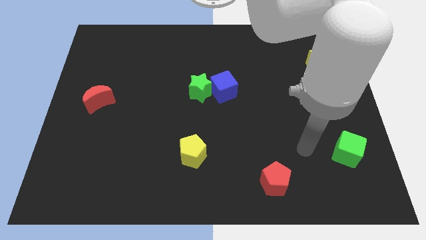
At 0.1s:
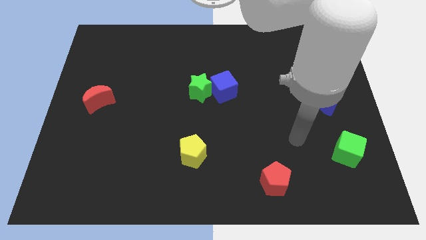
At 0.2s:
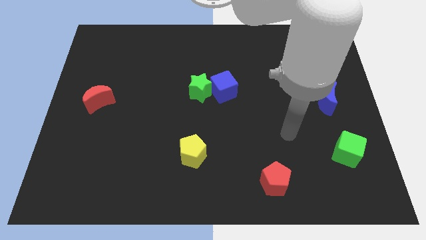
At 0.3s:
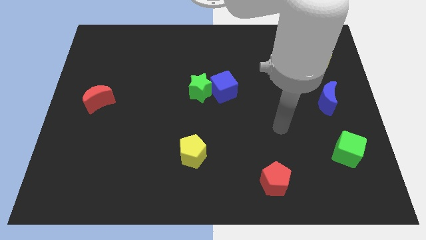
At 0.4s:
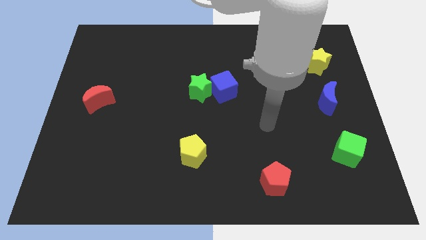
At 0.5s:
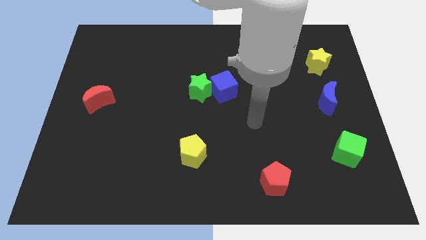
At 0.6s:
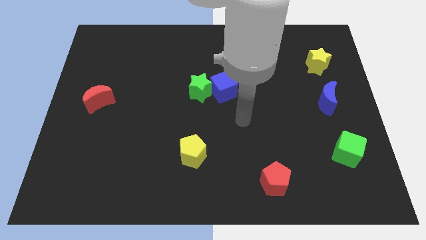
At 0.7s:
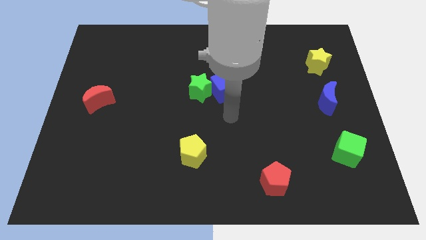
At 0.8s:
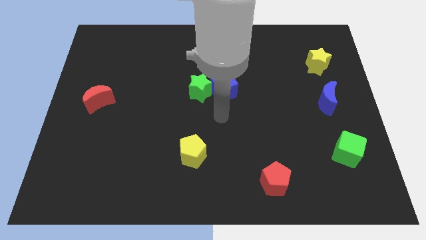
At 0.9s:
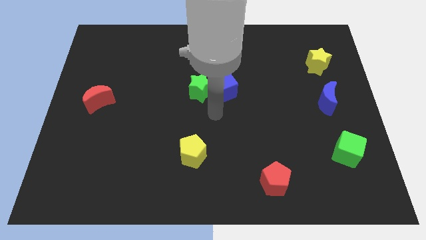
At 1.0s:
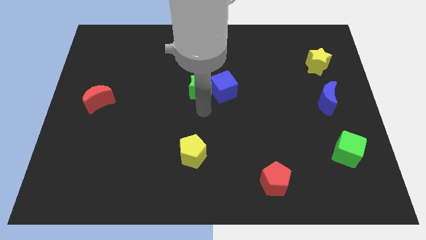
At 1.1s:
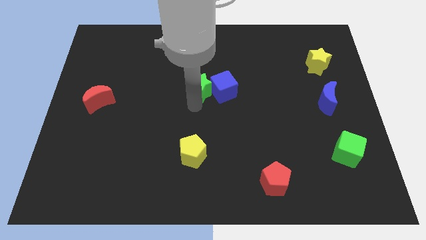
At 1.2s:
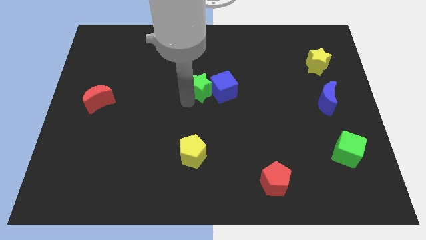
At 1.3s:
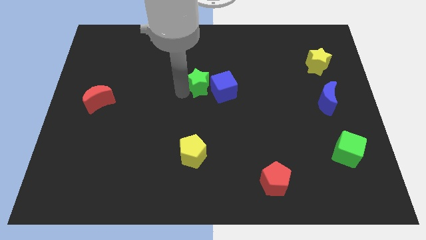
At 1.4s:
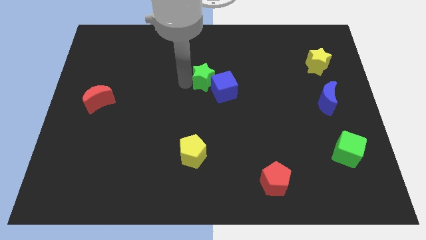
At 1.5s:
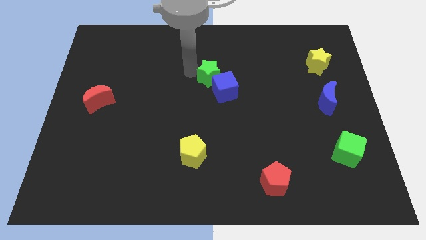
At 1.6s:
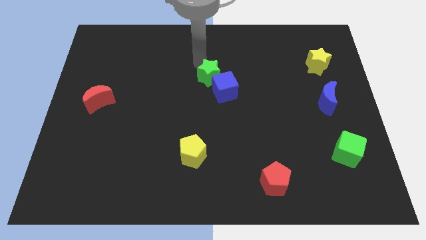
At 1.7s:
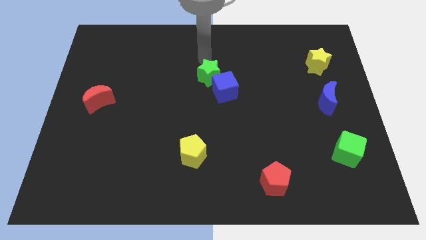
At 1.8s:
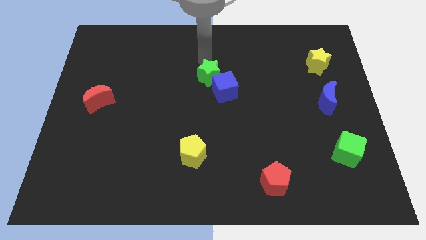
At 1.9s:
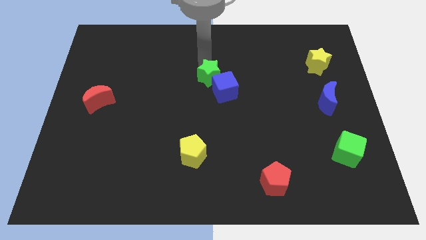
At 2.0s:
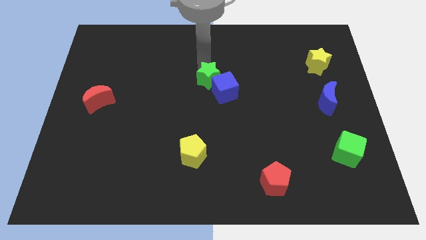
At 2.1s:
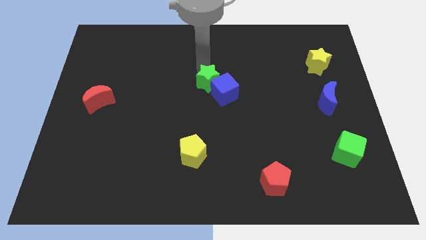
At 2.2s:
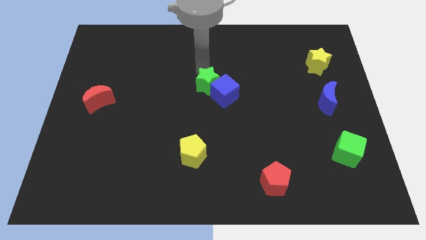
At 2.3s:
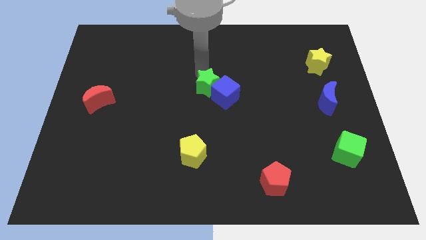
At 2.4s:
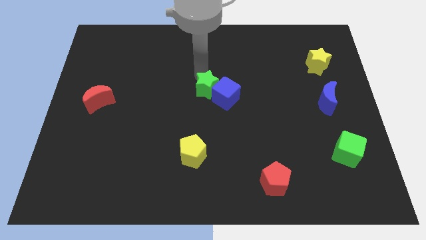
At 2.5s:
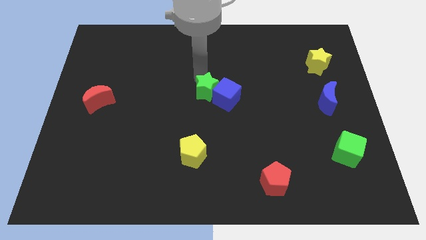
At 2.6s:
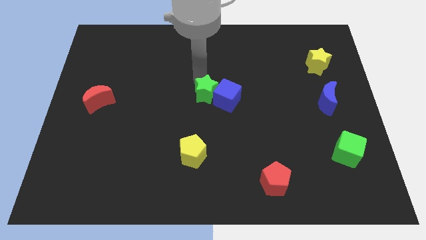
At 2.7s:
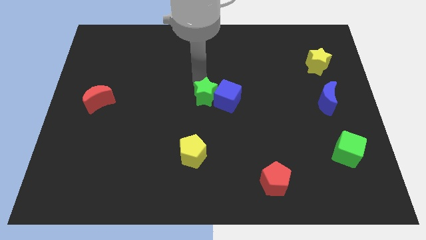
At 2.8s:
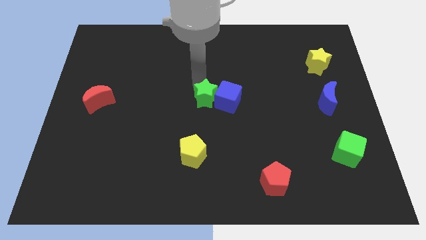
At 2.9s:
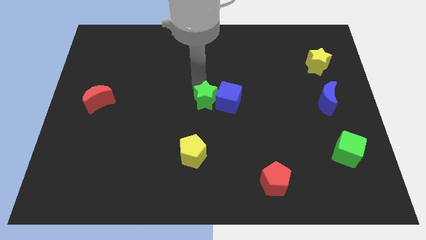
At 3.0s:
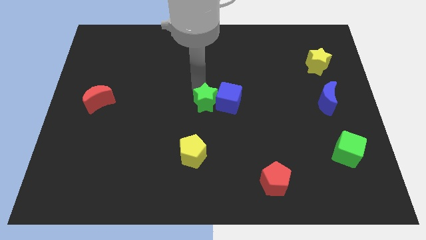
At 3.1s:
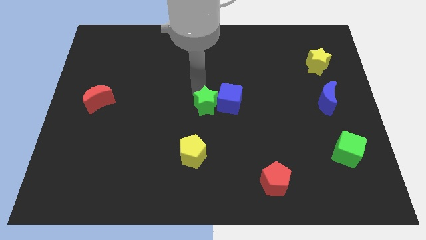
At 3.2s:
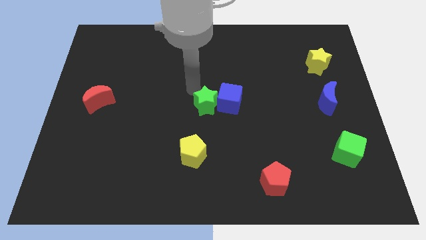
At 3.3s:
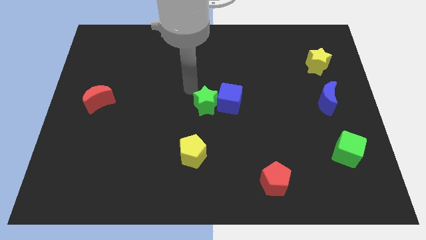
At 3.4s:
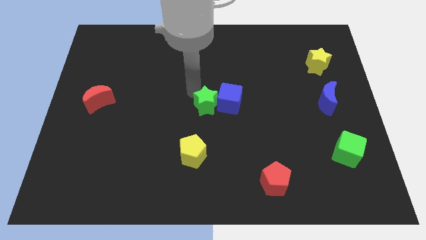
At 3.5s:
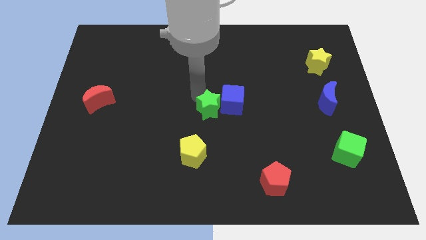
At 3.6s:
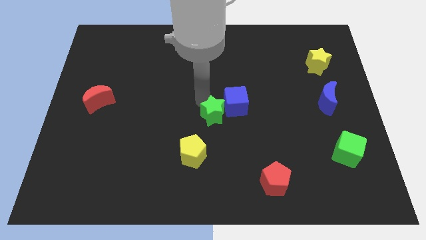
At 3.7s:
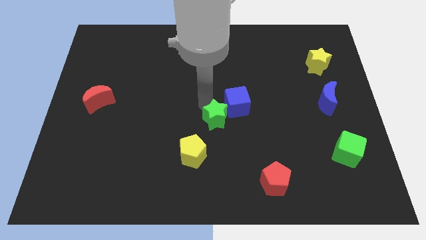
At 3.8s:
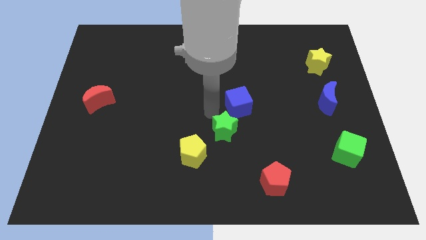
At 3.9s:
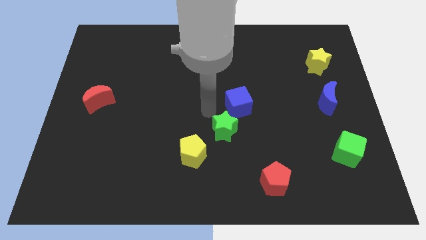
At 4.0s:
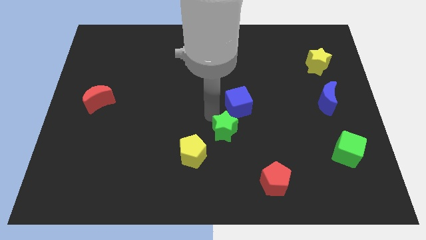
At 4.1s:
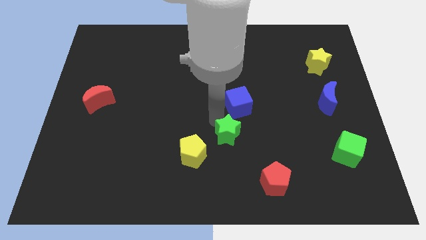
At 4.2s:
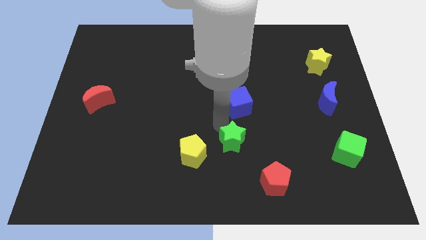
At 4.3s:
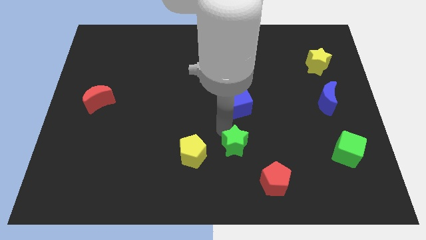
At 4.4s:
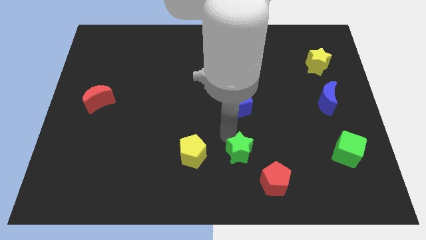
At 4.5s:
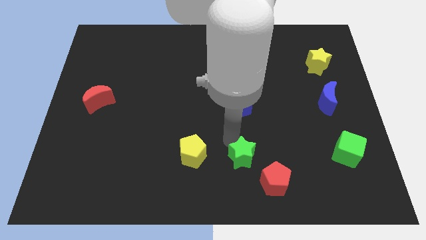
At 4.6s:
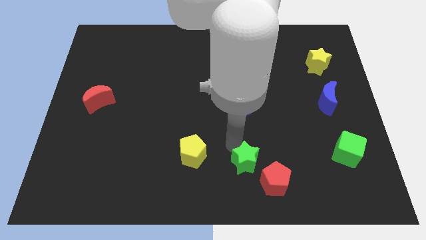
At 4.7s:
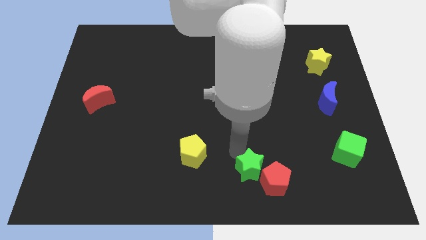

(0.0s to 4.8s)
push the green star close to the red pentagon

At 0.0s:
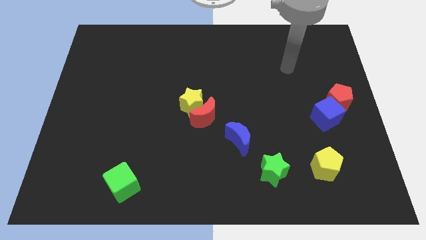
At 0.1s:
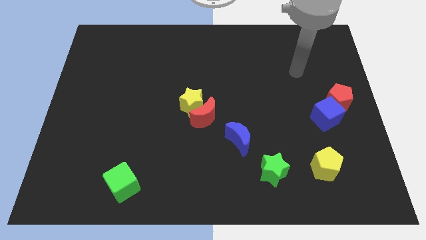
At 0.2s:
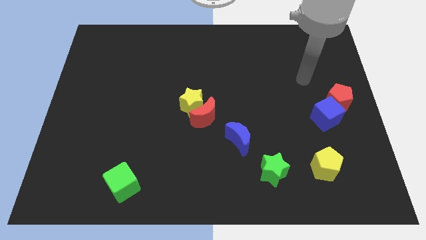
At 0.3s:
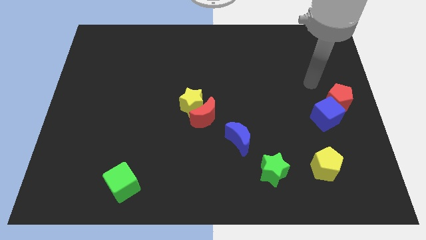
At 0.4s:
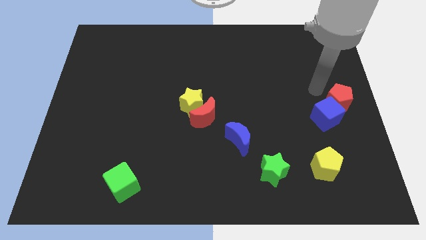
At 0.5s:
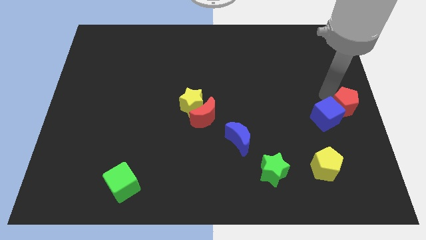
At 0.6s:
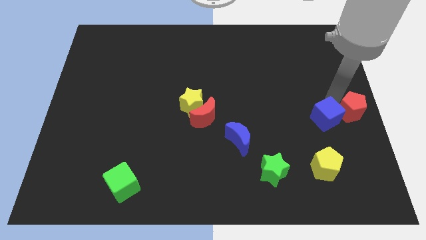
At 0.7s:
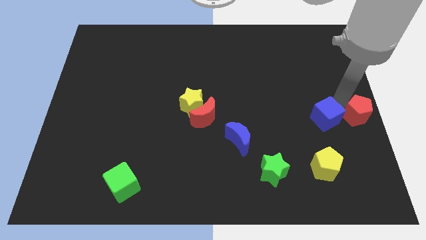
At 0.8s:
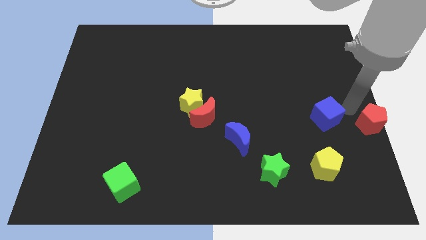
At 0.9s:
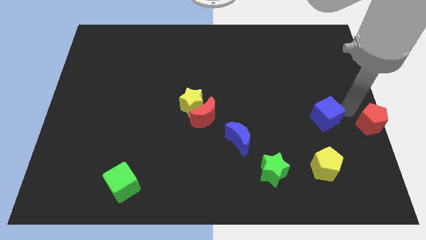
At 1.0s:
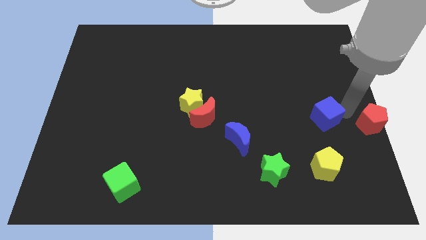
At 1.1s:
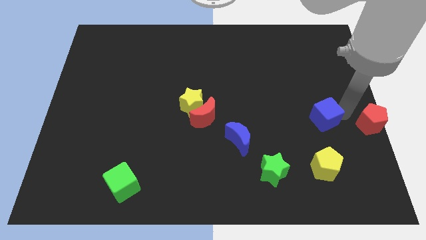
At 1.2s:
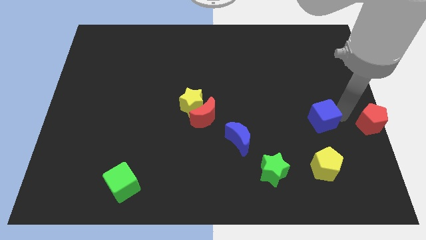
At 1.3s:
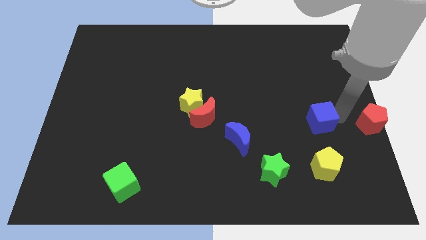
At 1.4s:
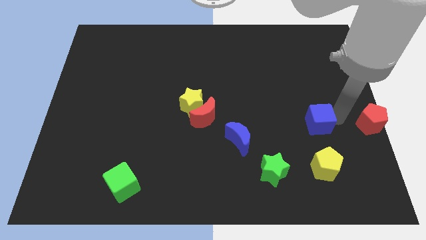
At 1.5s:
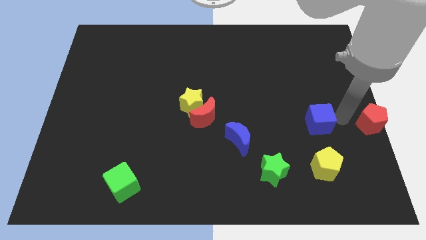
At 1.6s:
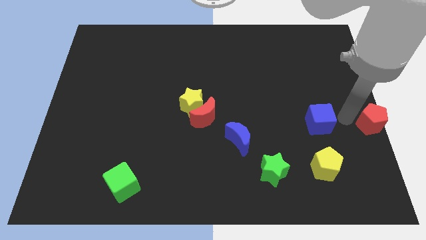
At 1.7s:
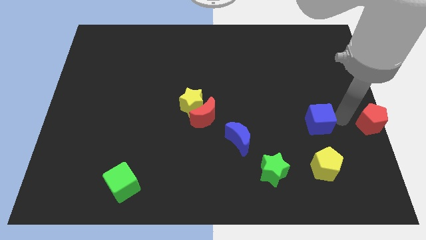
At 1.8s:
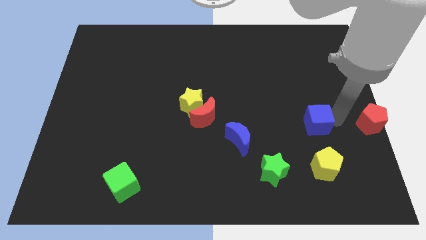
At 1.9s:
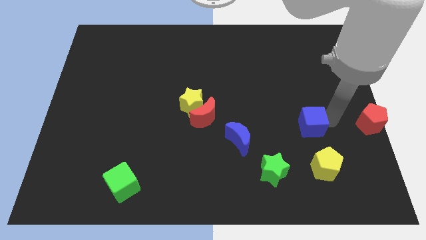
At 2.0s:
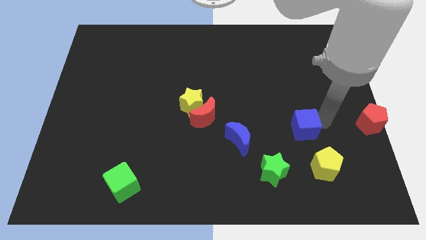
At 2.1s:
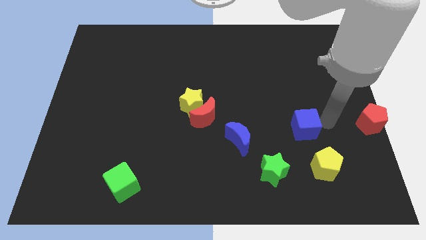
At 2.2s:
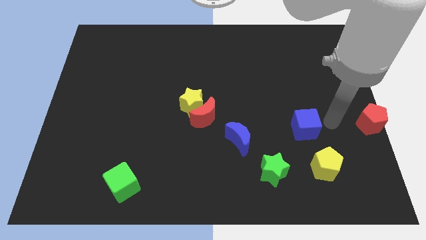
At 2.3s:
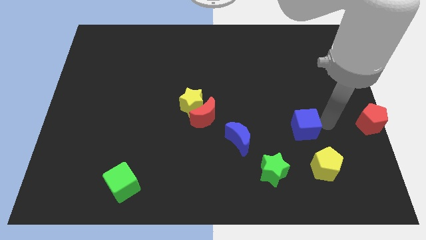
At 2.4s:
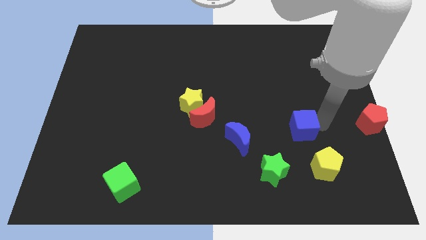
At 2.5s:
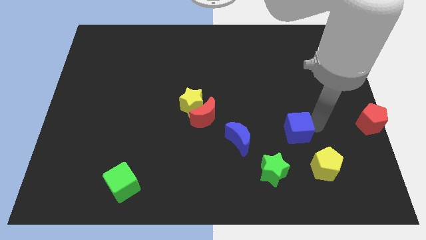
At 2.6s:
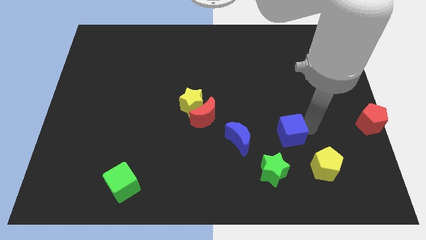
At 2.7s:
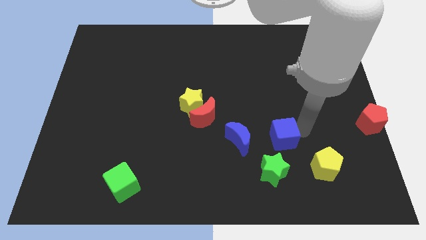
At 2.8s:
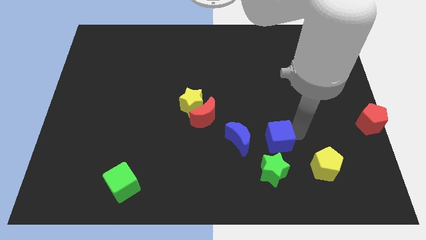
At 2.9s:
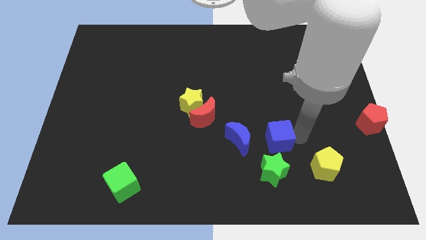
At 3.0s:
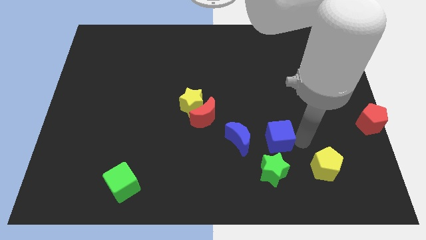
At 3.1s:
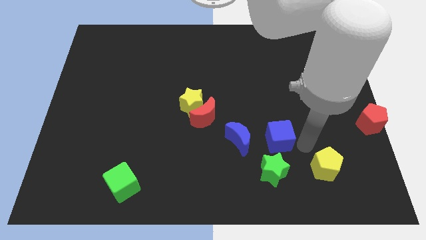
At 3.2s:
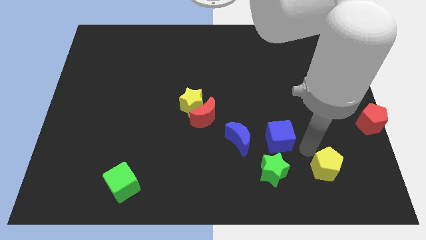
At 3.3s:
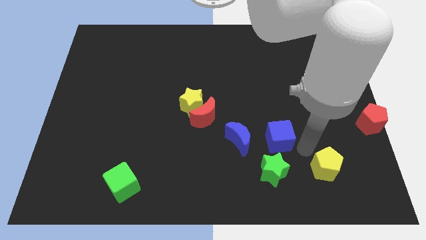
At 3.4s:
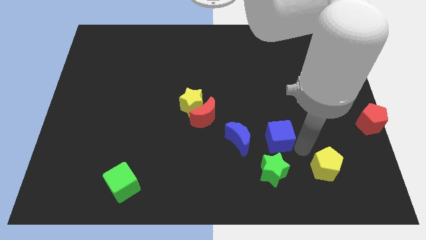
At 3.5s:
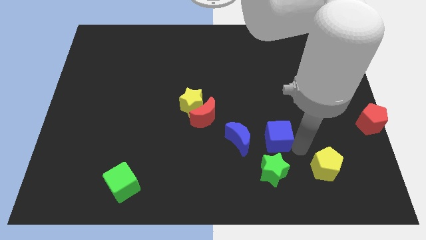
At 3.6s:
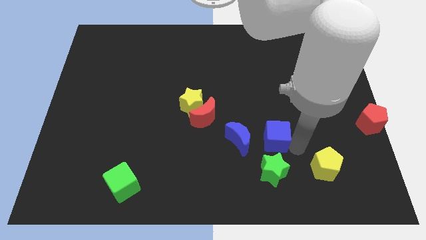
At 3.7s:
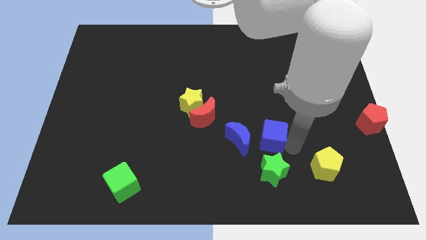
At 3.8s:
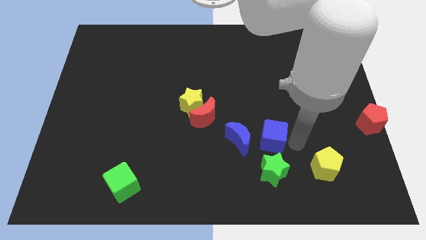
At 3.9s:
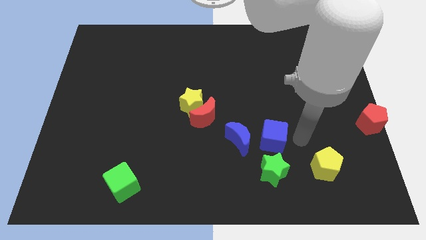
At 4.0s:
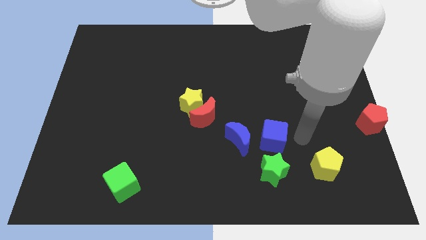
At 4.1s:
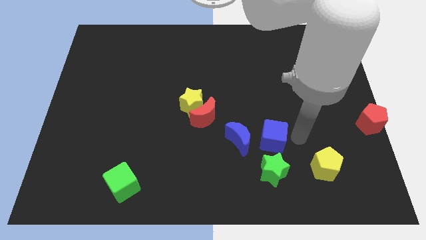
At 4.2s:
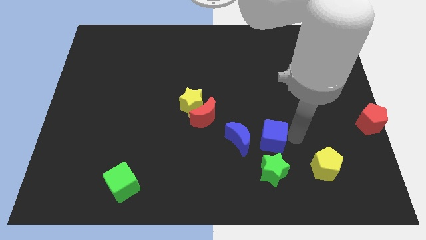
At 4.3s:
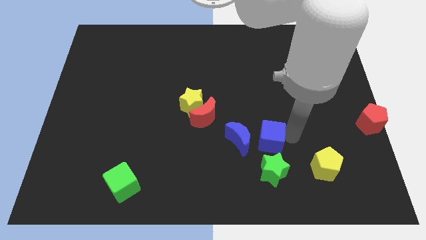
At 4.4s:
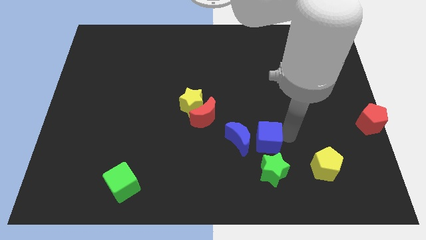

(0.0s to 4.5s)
slide the blue cube to the blue moon
